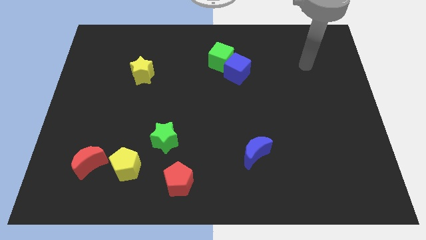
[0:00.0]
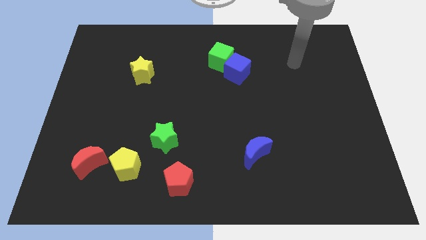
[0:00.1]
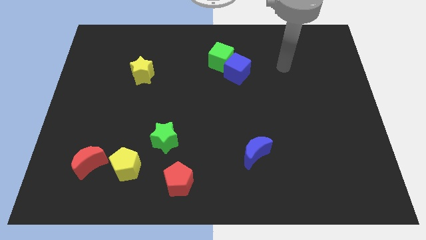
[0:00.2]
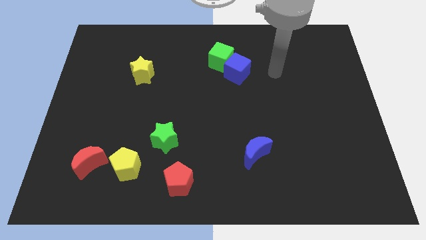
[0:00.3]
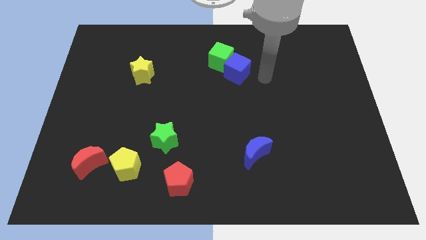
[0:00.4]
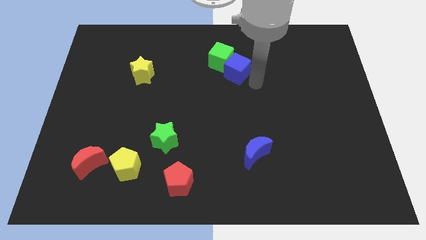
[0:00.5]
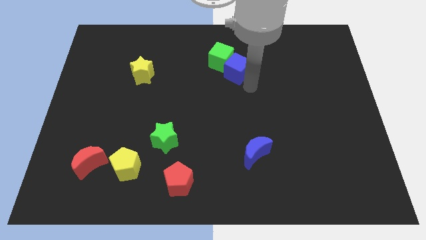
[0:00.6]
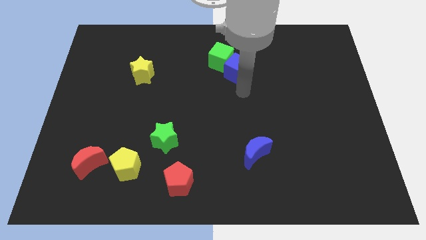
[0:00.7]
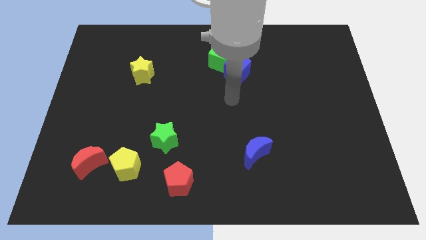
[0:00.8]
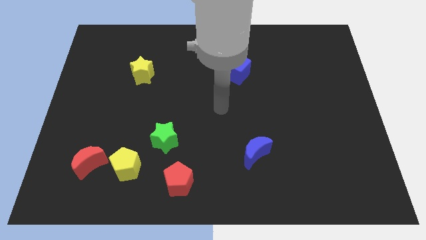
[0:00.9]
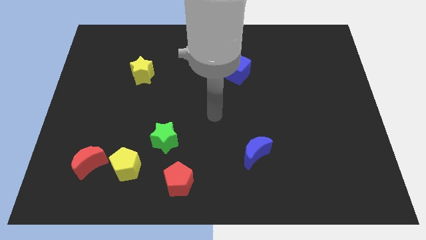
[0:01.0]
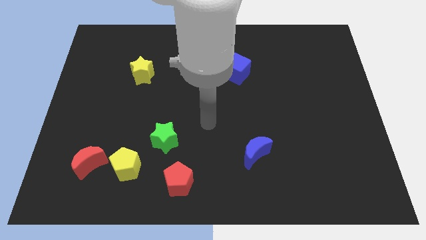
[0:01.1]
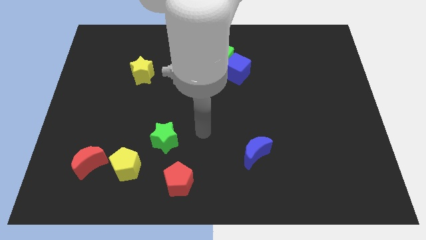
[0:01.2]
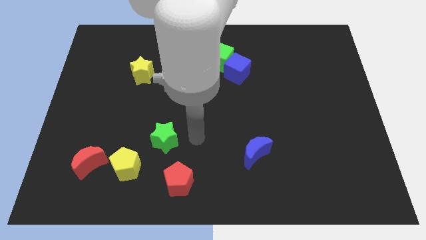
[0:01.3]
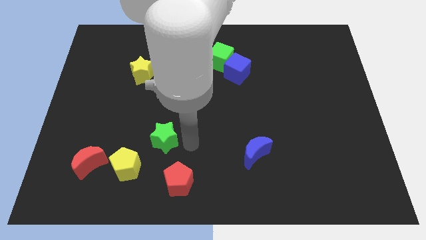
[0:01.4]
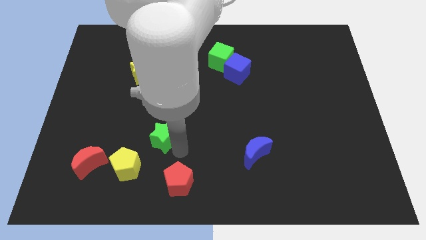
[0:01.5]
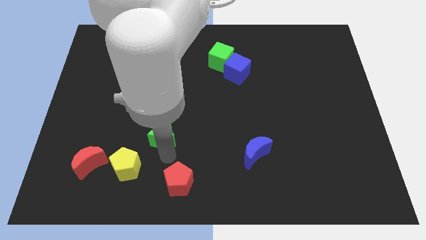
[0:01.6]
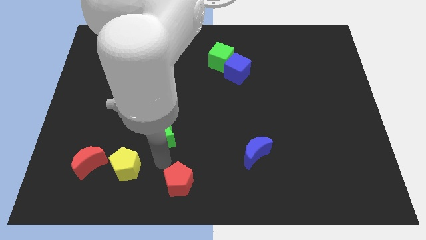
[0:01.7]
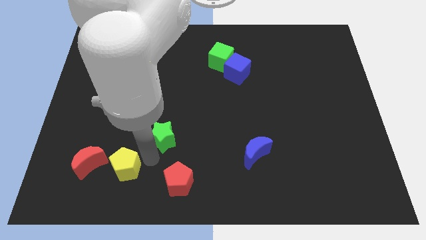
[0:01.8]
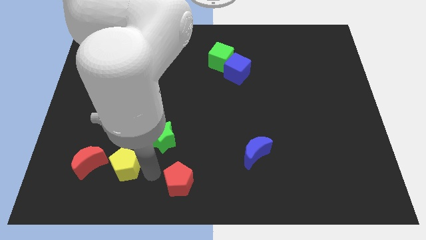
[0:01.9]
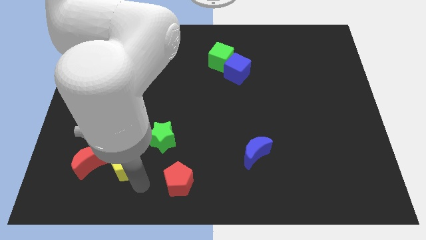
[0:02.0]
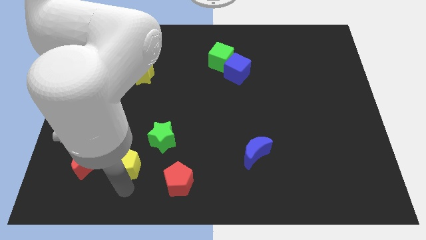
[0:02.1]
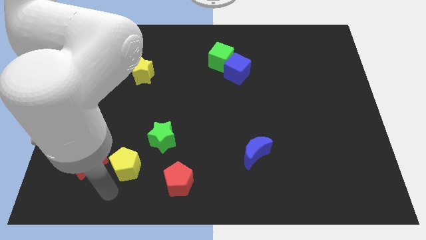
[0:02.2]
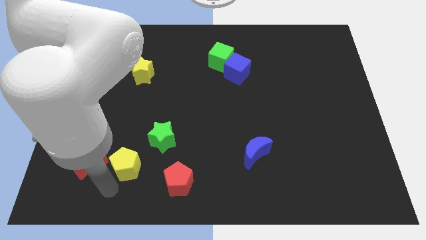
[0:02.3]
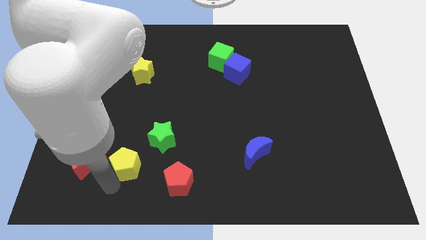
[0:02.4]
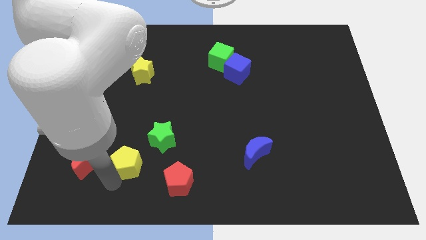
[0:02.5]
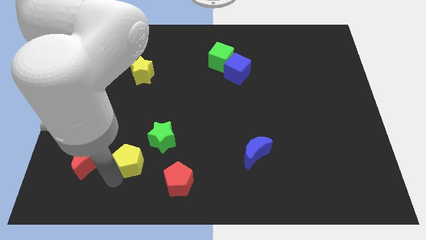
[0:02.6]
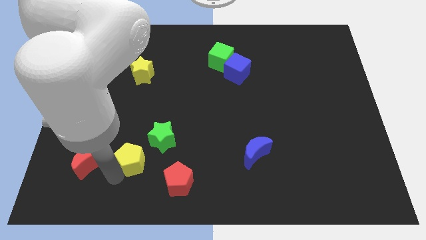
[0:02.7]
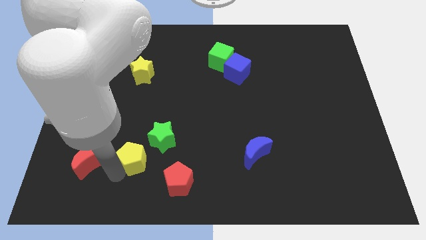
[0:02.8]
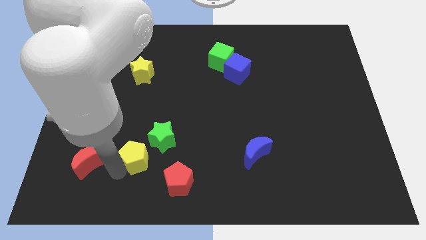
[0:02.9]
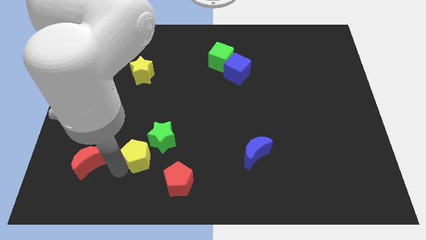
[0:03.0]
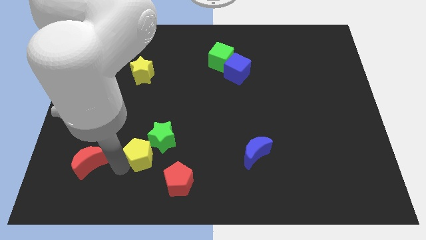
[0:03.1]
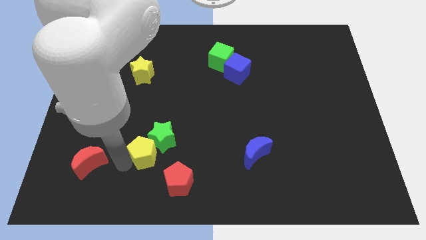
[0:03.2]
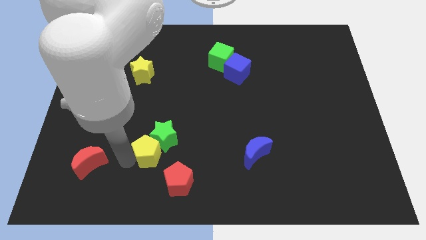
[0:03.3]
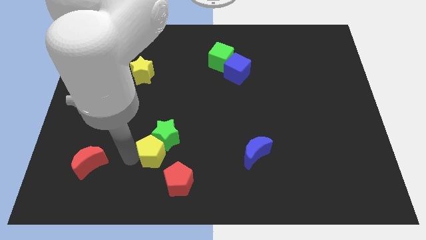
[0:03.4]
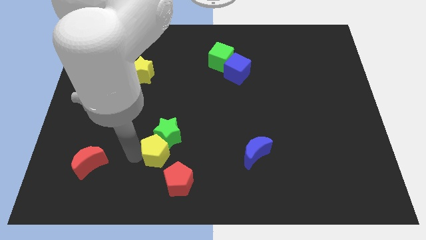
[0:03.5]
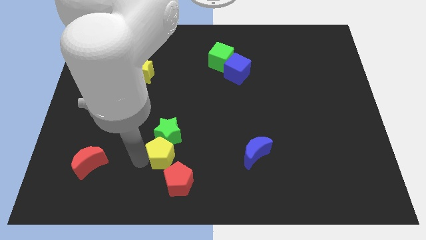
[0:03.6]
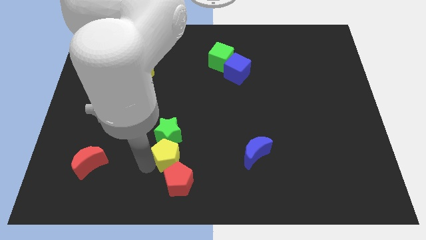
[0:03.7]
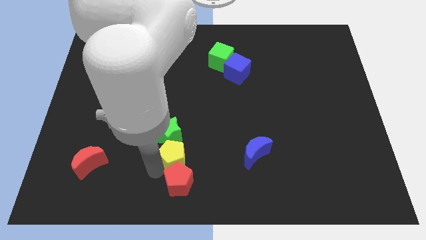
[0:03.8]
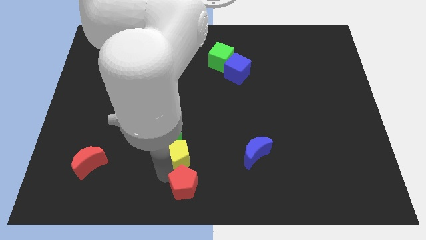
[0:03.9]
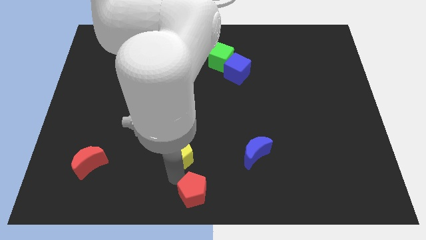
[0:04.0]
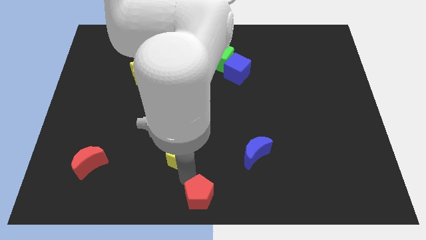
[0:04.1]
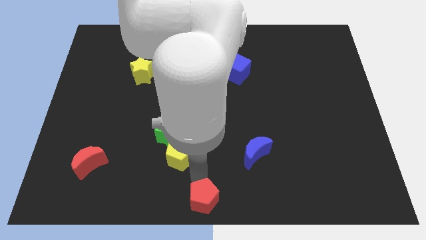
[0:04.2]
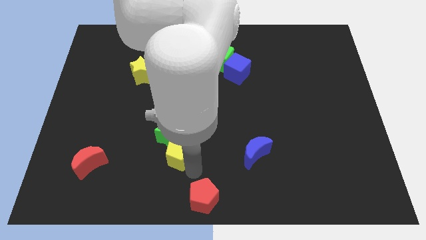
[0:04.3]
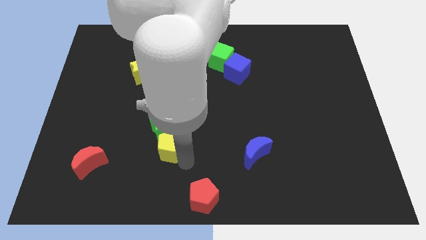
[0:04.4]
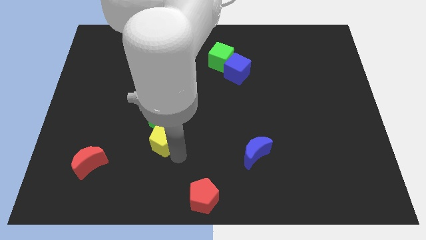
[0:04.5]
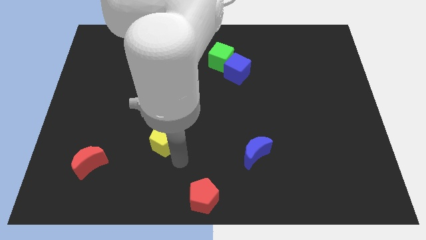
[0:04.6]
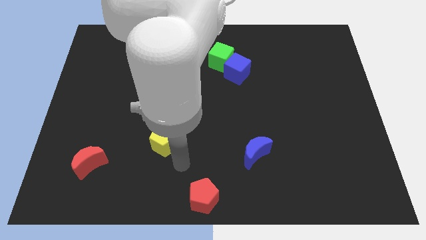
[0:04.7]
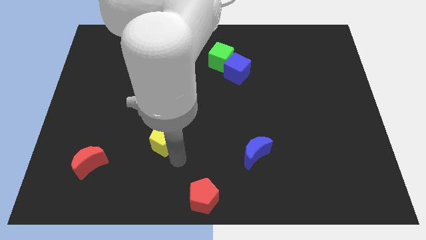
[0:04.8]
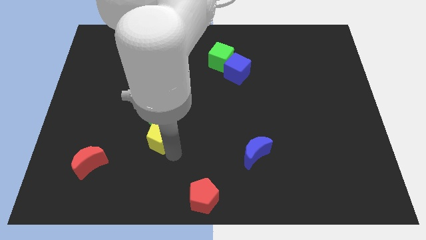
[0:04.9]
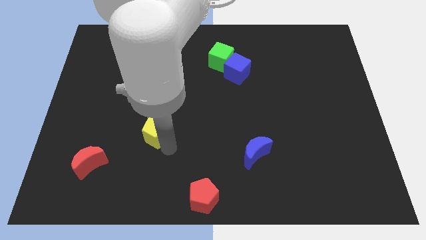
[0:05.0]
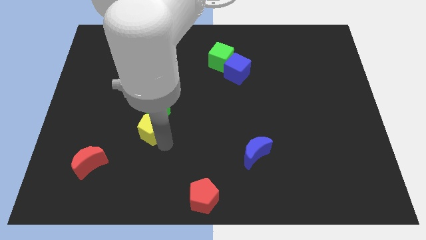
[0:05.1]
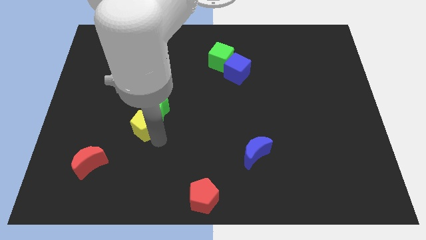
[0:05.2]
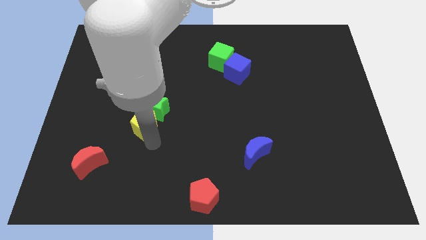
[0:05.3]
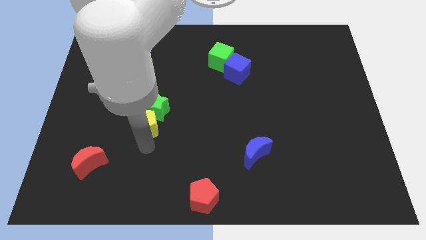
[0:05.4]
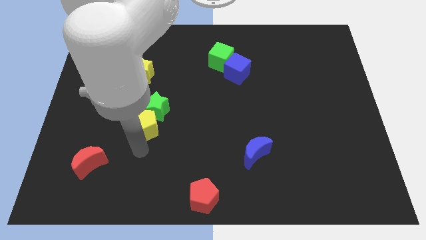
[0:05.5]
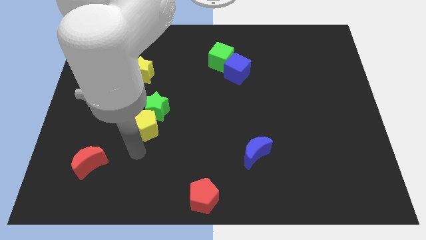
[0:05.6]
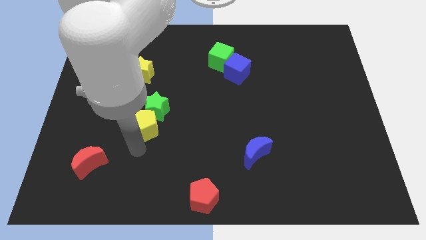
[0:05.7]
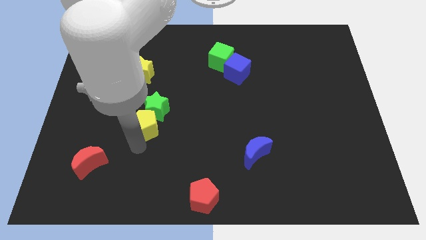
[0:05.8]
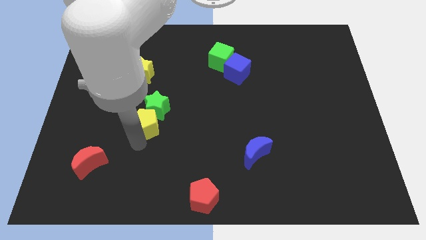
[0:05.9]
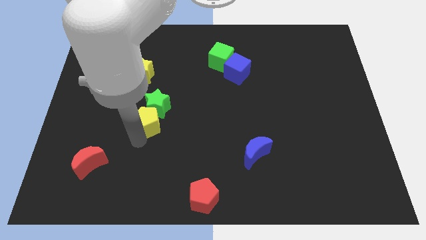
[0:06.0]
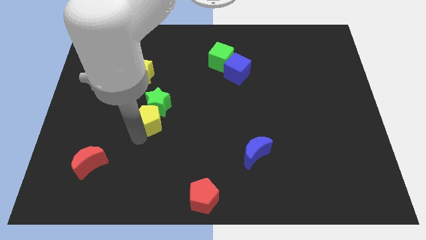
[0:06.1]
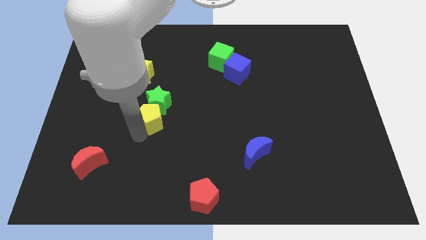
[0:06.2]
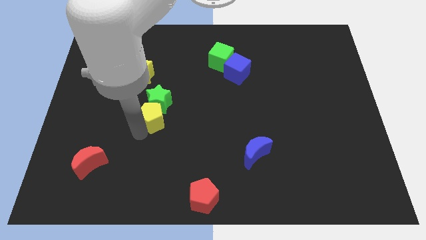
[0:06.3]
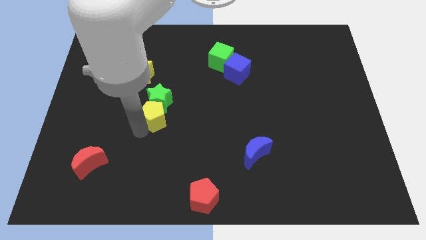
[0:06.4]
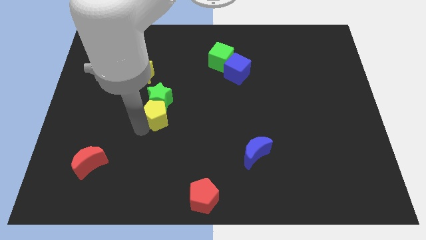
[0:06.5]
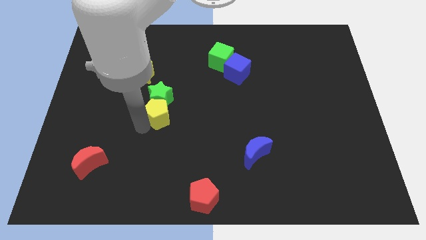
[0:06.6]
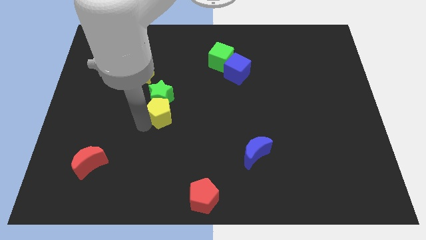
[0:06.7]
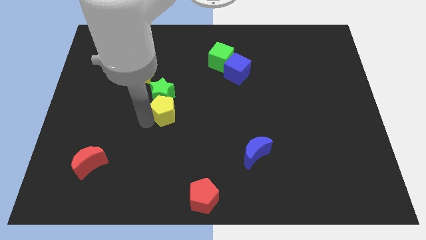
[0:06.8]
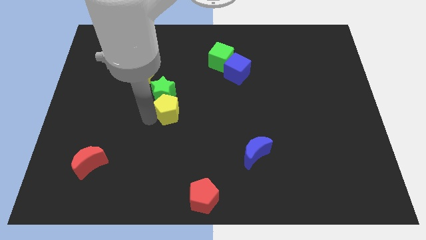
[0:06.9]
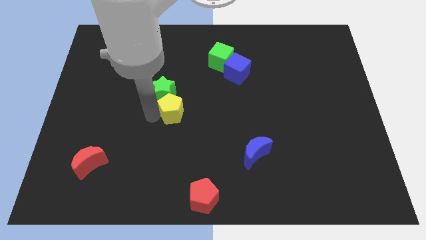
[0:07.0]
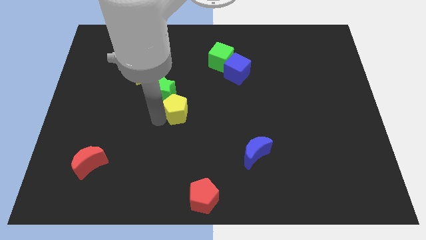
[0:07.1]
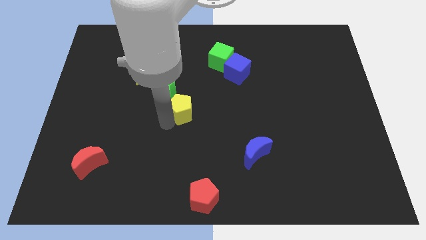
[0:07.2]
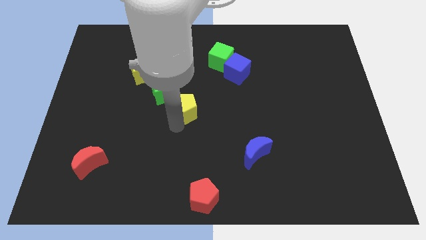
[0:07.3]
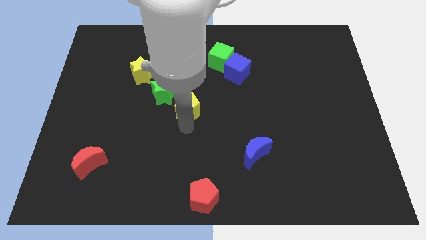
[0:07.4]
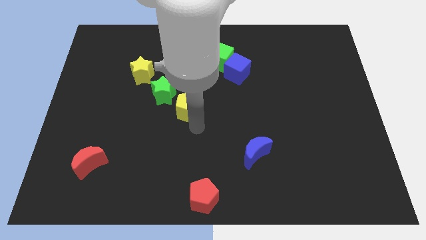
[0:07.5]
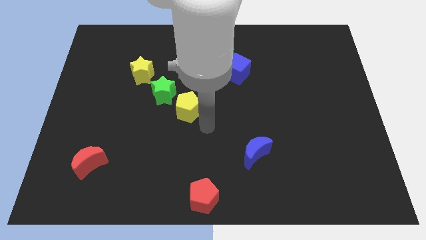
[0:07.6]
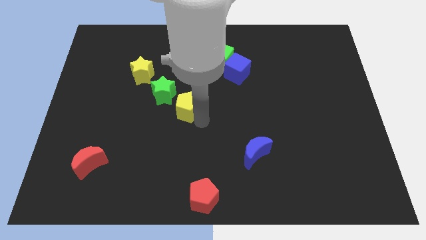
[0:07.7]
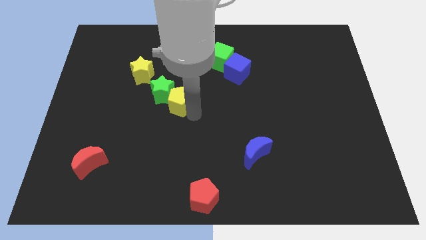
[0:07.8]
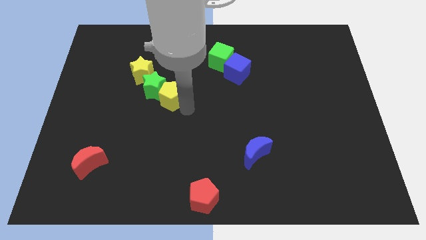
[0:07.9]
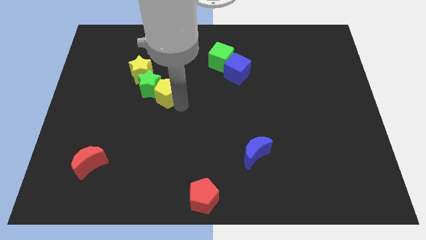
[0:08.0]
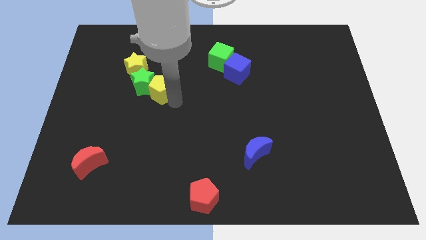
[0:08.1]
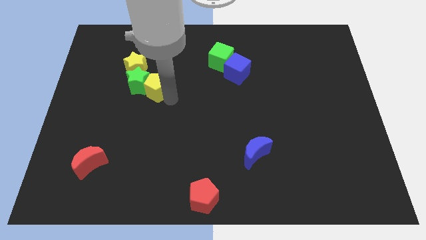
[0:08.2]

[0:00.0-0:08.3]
push the yellow pentagon upwards
